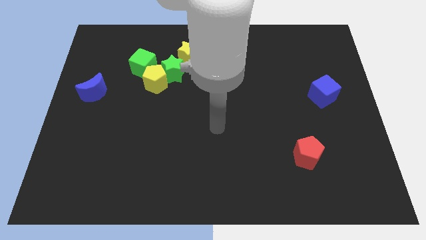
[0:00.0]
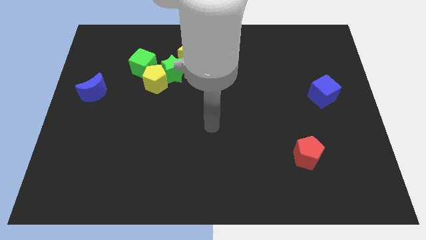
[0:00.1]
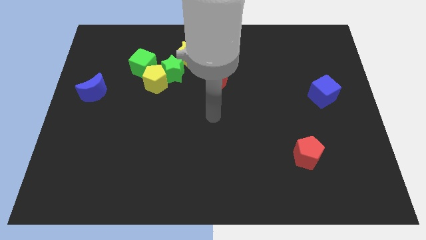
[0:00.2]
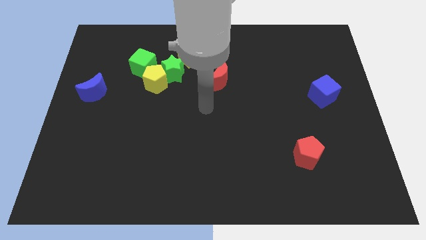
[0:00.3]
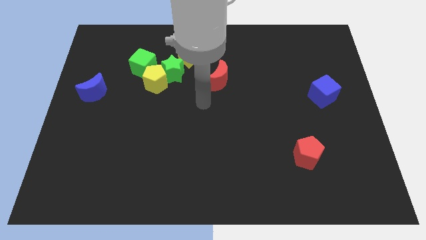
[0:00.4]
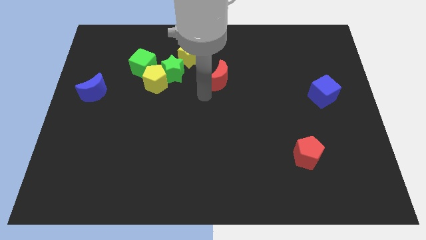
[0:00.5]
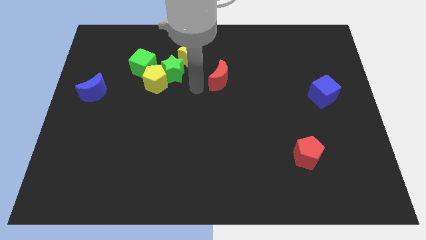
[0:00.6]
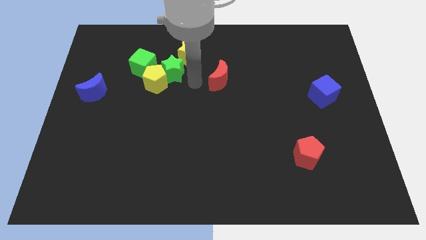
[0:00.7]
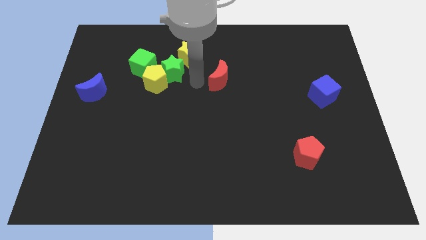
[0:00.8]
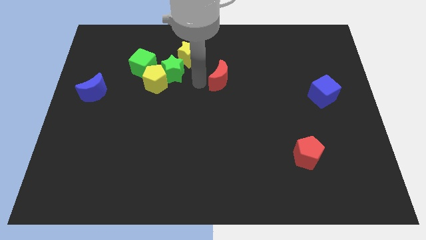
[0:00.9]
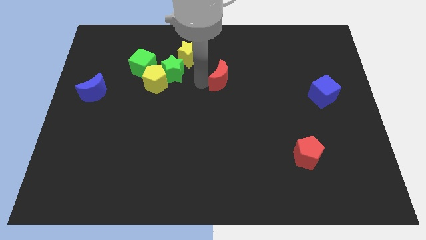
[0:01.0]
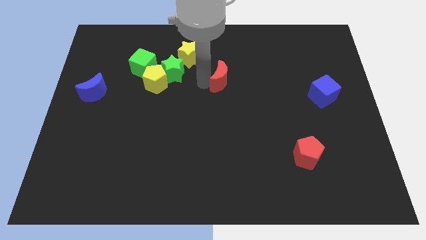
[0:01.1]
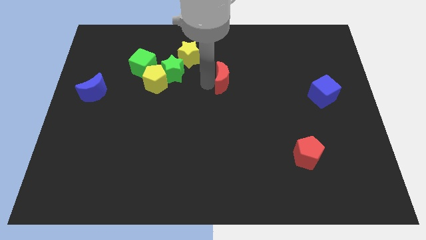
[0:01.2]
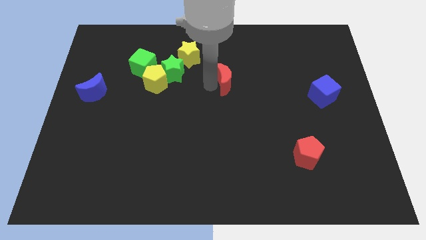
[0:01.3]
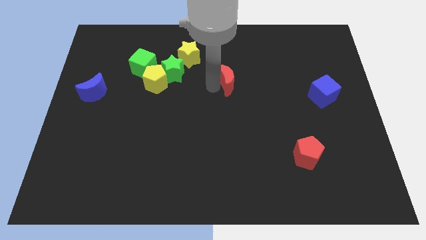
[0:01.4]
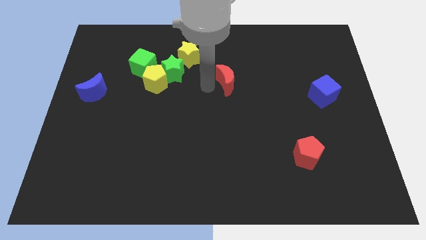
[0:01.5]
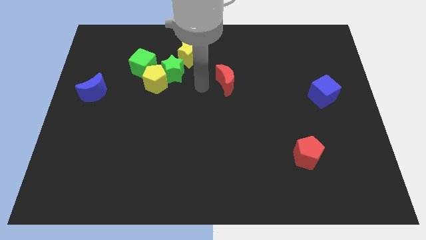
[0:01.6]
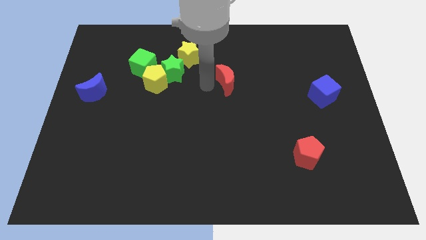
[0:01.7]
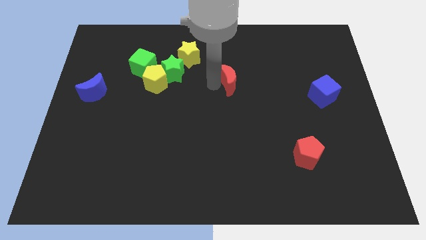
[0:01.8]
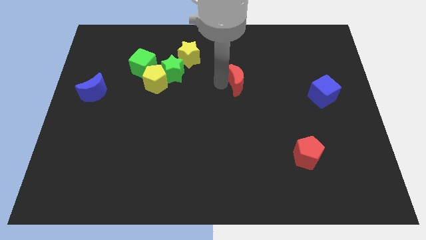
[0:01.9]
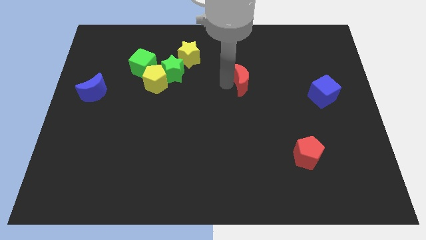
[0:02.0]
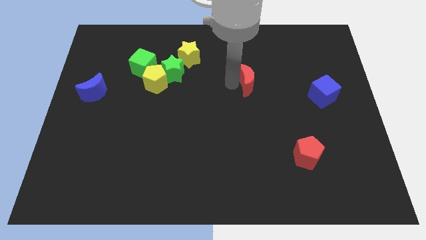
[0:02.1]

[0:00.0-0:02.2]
slightly push the red moon right

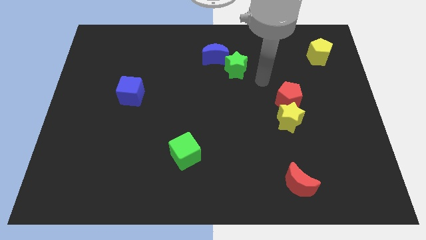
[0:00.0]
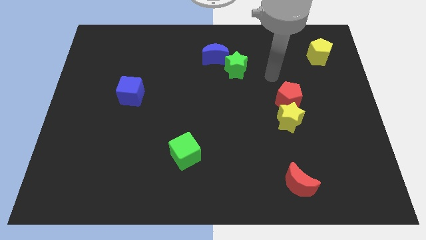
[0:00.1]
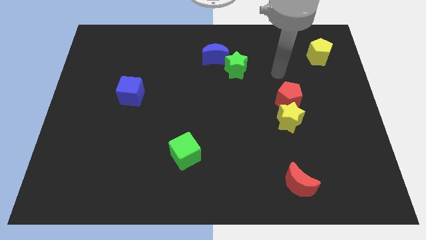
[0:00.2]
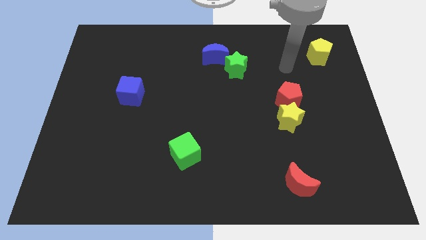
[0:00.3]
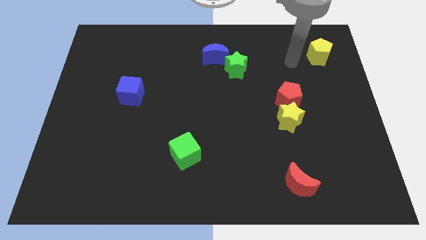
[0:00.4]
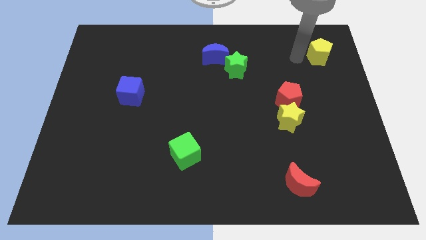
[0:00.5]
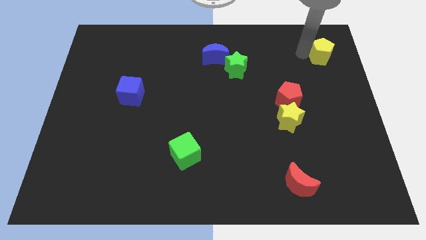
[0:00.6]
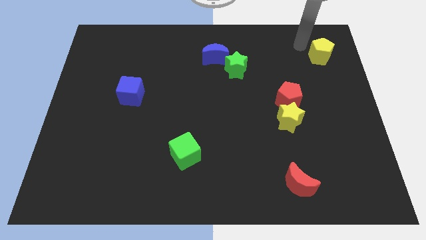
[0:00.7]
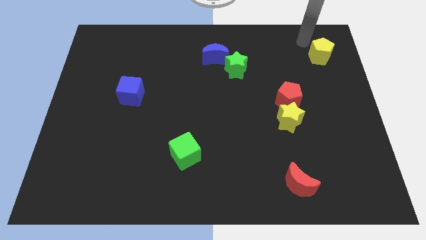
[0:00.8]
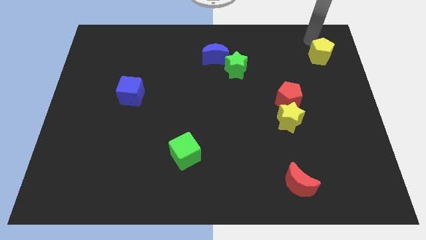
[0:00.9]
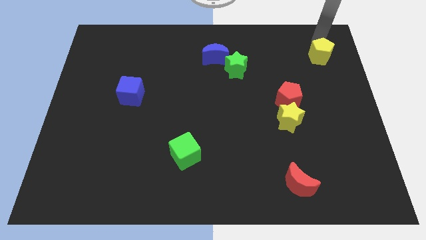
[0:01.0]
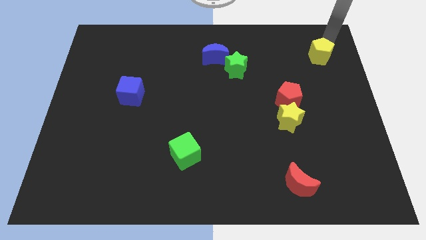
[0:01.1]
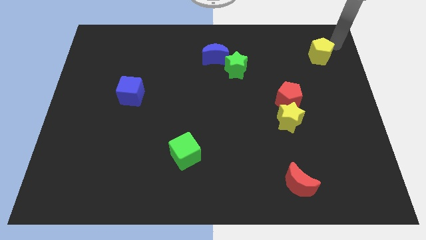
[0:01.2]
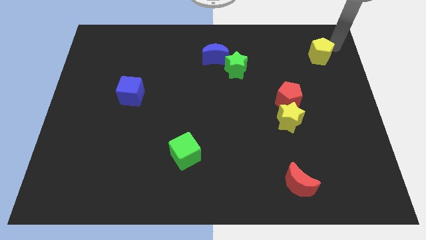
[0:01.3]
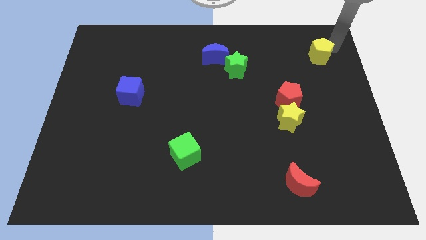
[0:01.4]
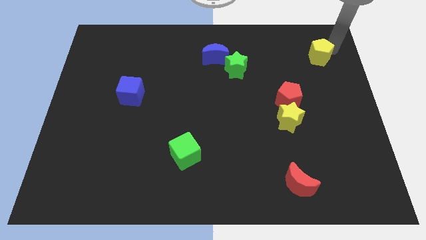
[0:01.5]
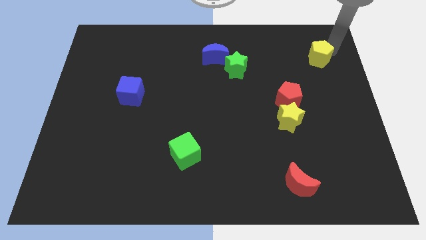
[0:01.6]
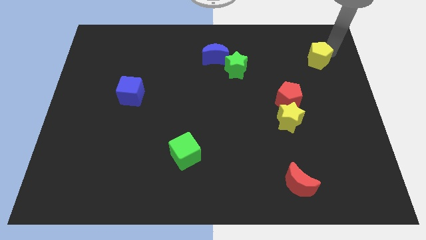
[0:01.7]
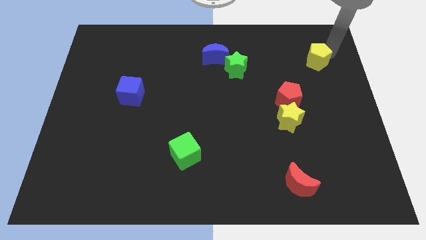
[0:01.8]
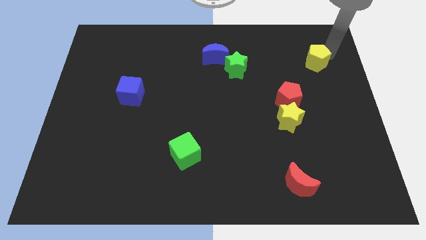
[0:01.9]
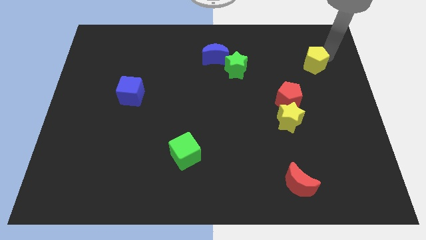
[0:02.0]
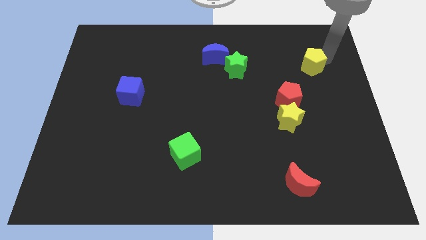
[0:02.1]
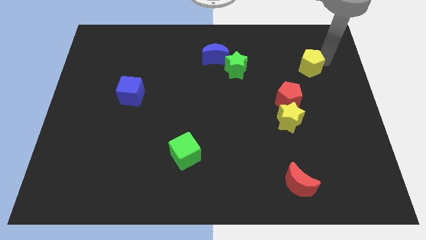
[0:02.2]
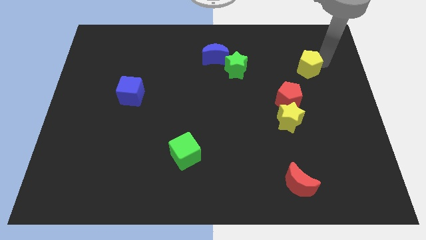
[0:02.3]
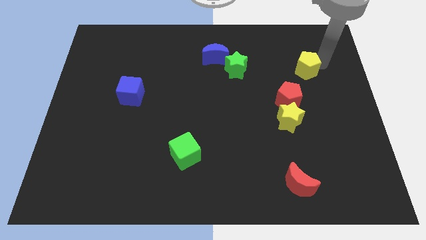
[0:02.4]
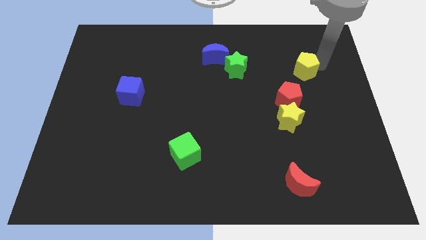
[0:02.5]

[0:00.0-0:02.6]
push the yellow pentagon downwards and to the left a bit

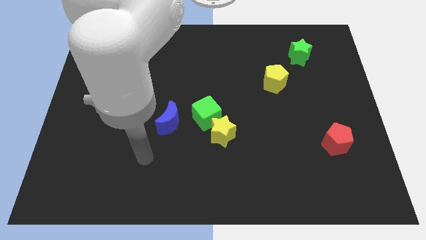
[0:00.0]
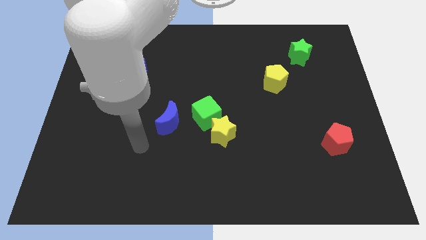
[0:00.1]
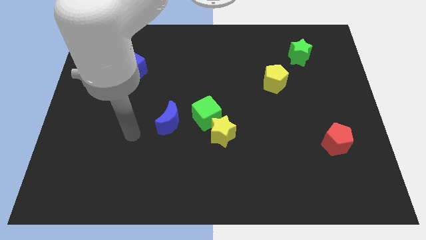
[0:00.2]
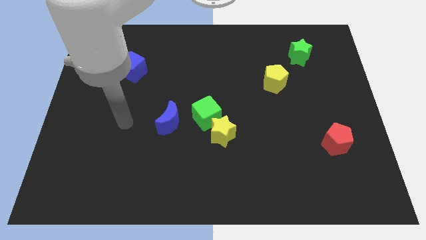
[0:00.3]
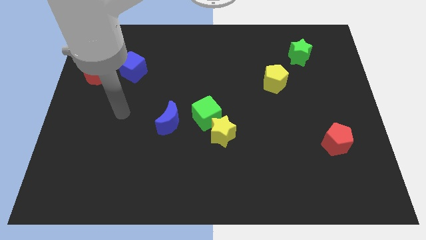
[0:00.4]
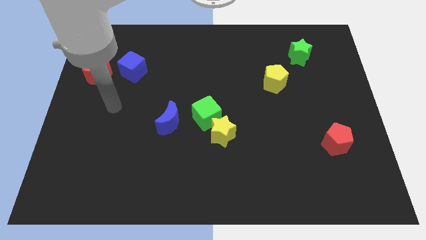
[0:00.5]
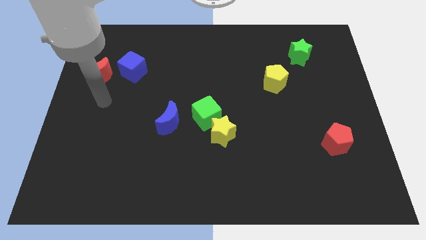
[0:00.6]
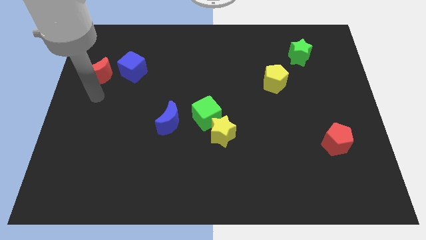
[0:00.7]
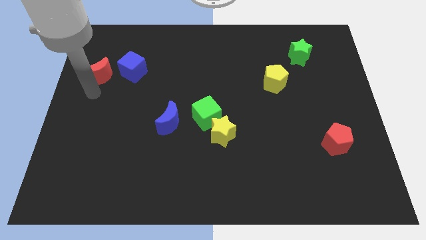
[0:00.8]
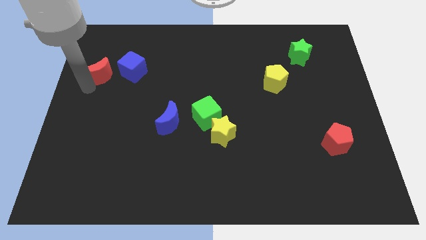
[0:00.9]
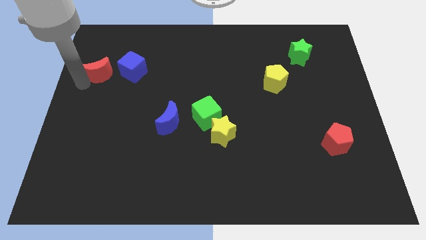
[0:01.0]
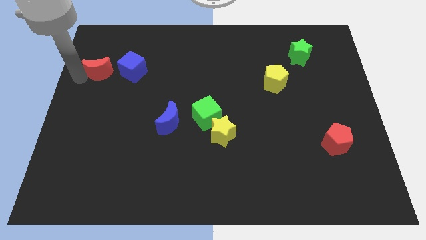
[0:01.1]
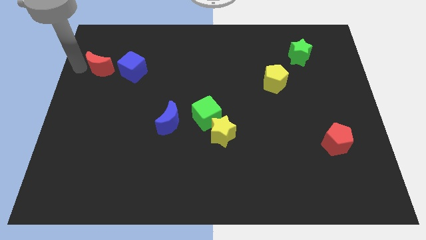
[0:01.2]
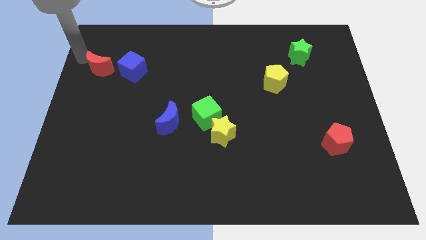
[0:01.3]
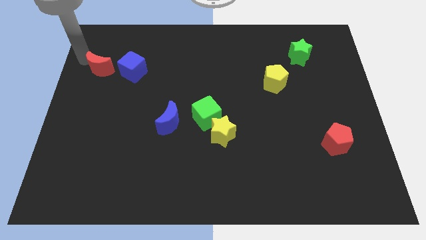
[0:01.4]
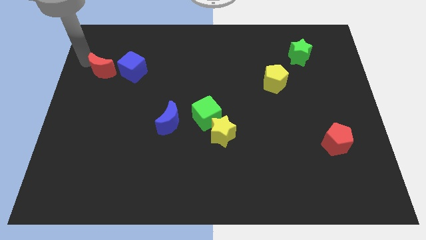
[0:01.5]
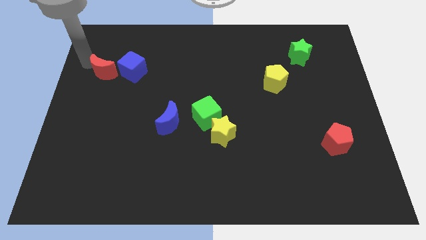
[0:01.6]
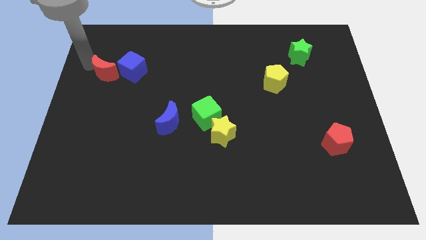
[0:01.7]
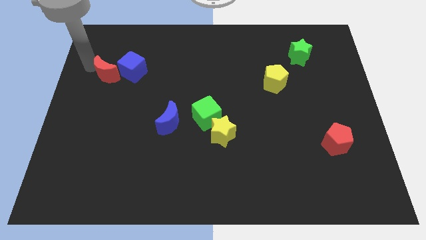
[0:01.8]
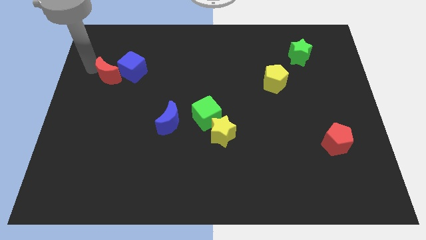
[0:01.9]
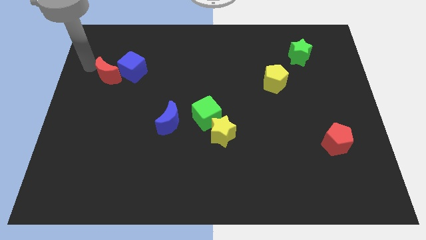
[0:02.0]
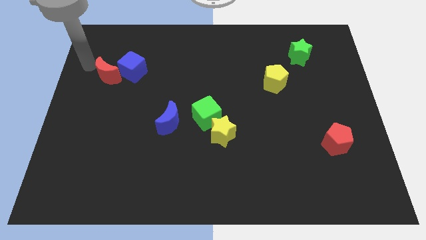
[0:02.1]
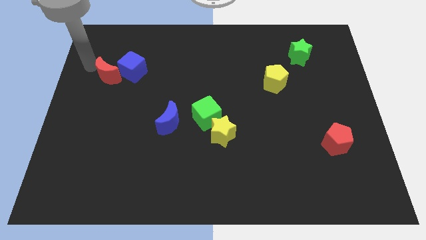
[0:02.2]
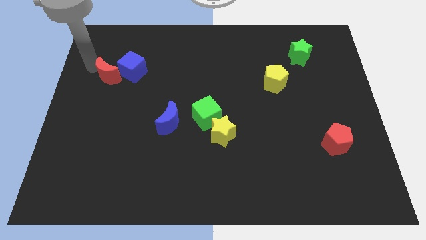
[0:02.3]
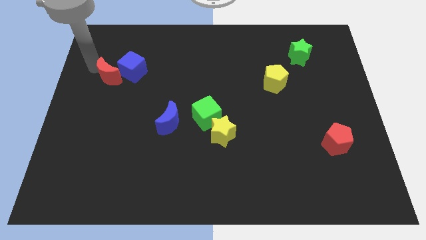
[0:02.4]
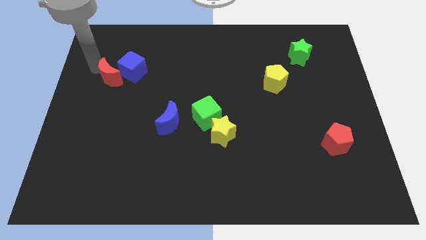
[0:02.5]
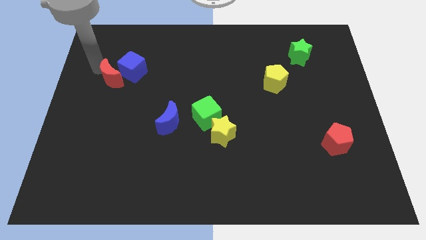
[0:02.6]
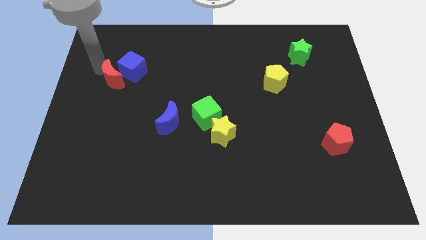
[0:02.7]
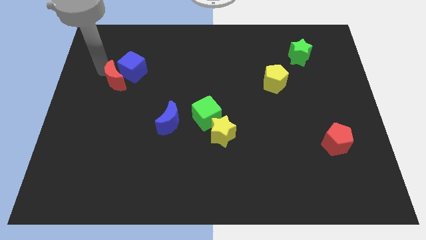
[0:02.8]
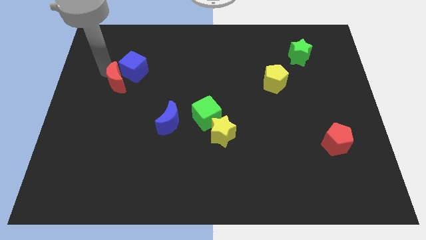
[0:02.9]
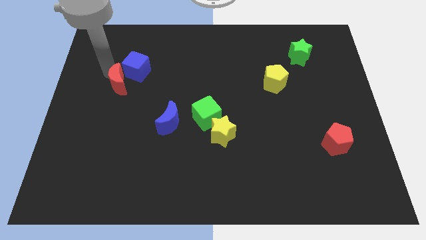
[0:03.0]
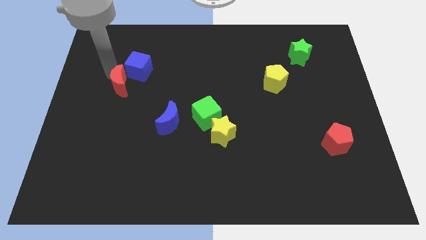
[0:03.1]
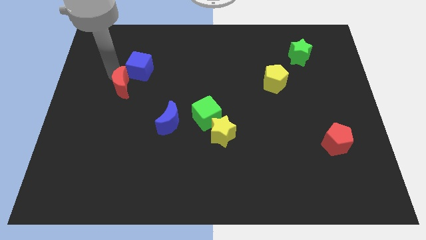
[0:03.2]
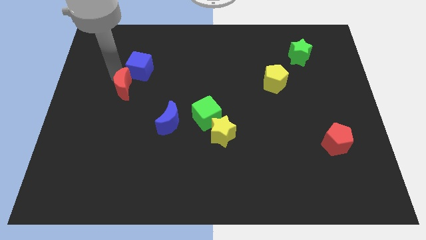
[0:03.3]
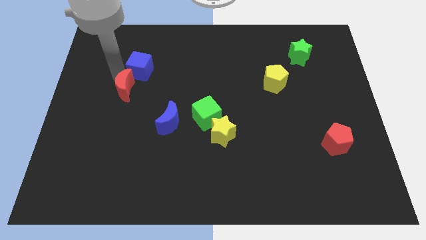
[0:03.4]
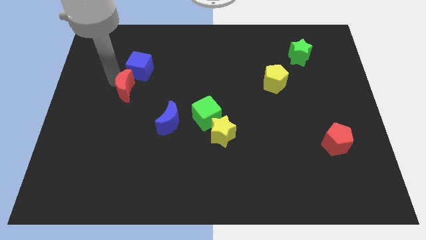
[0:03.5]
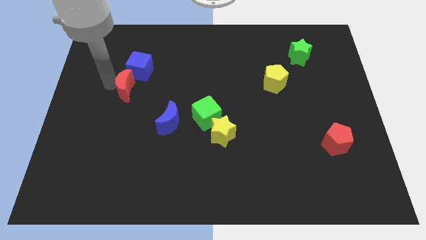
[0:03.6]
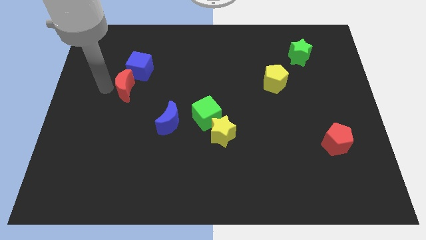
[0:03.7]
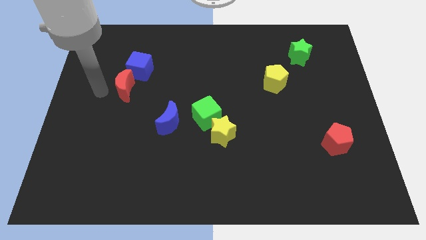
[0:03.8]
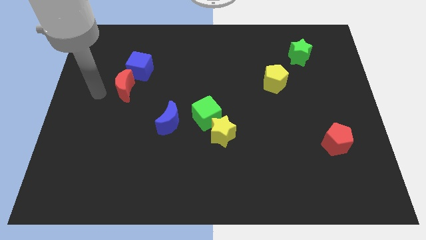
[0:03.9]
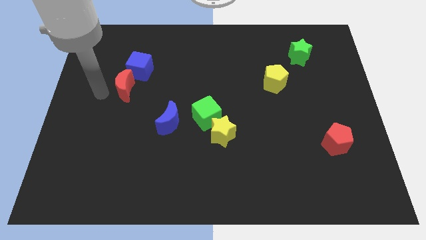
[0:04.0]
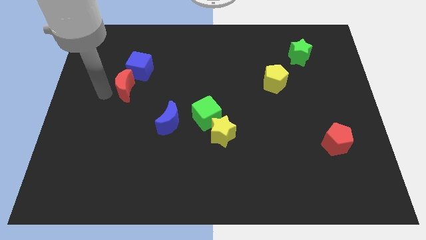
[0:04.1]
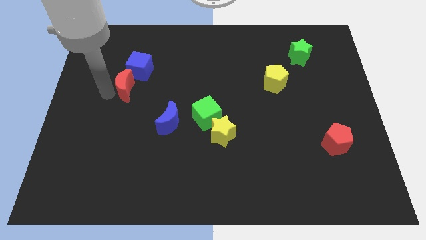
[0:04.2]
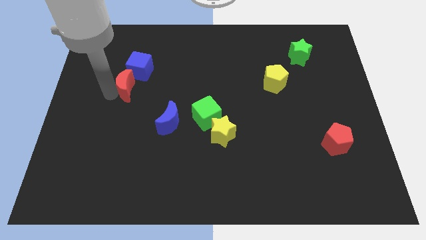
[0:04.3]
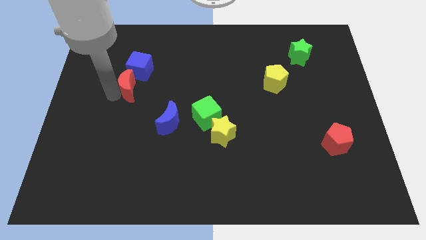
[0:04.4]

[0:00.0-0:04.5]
slightly push the red moon to the right
